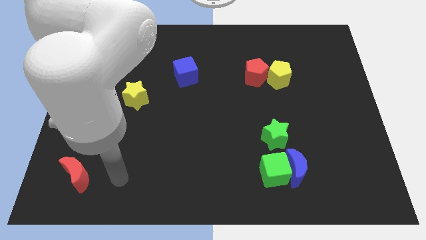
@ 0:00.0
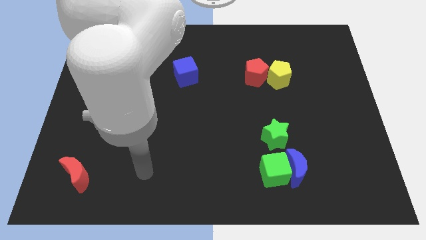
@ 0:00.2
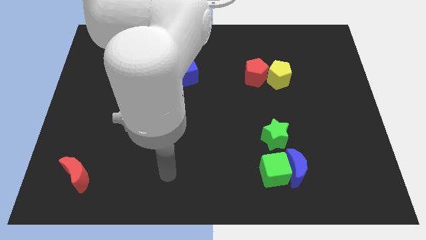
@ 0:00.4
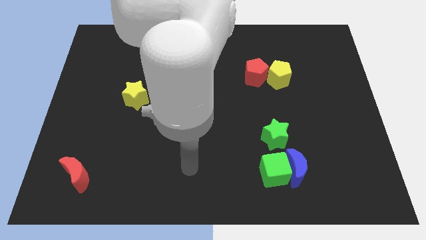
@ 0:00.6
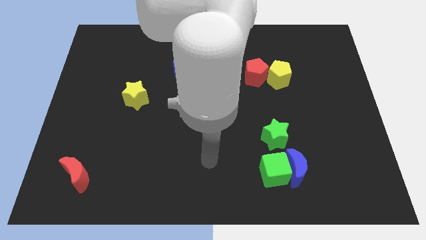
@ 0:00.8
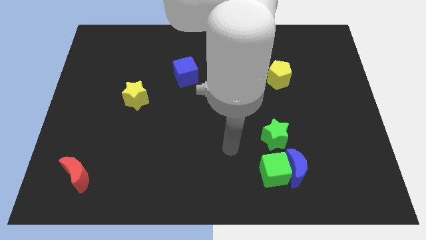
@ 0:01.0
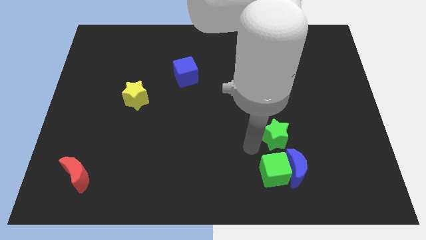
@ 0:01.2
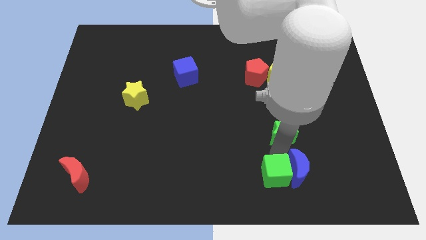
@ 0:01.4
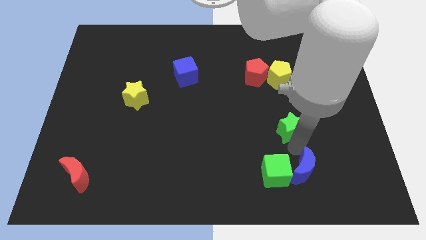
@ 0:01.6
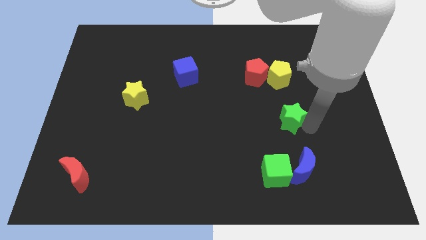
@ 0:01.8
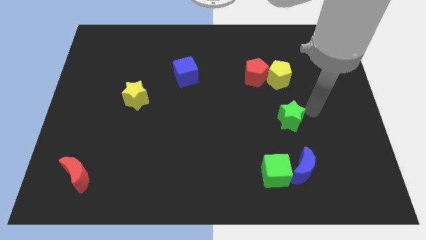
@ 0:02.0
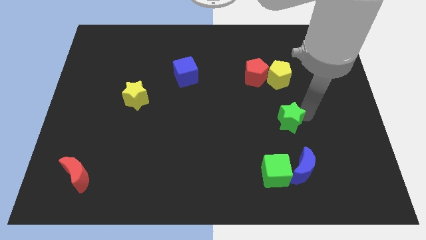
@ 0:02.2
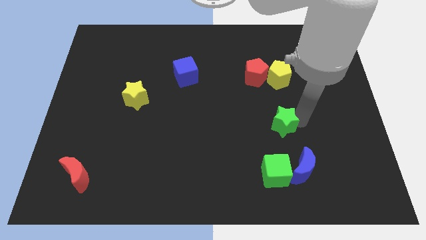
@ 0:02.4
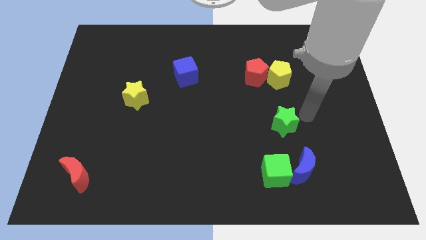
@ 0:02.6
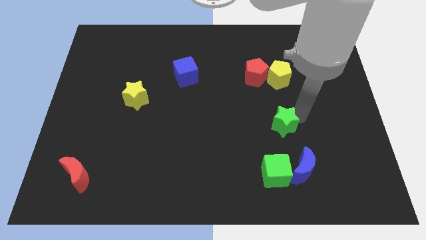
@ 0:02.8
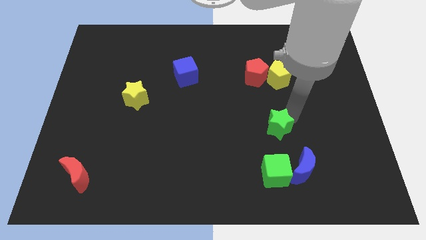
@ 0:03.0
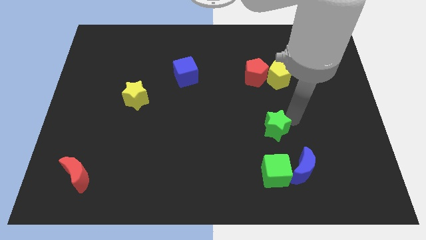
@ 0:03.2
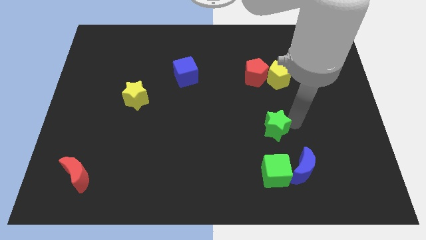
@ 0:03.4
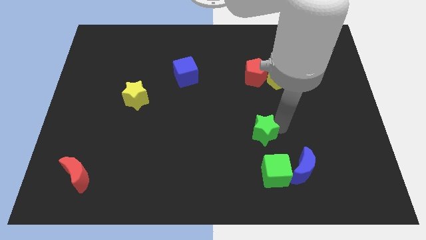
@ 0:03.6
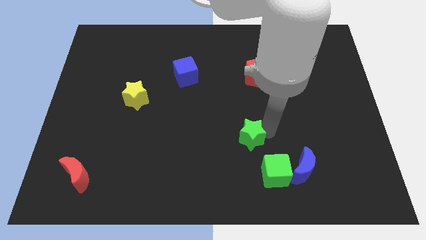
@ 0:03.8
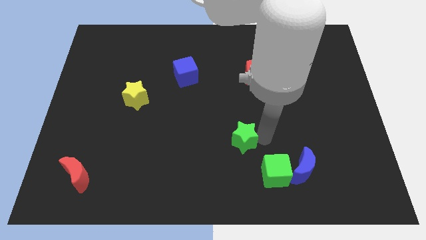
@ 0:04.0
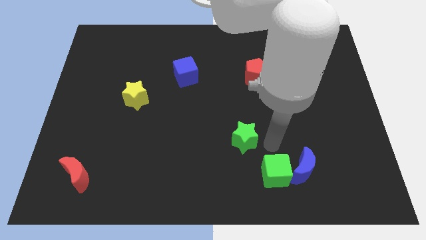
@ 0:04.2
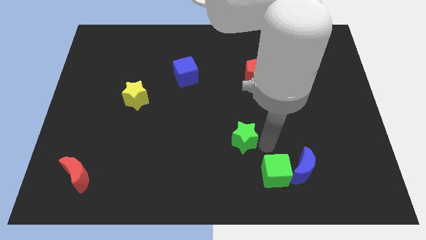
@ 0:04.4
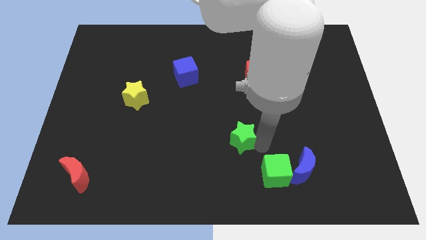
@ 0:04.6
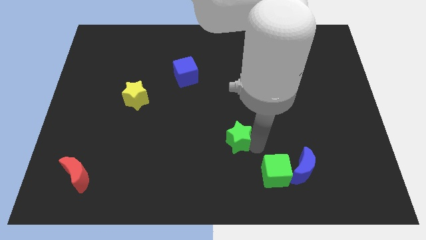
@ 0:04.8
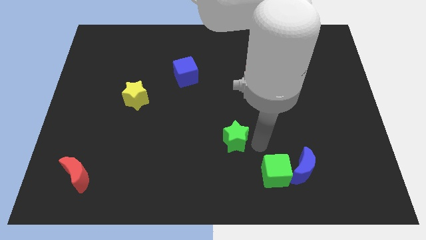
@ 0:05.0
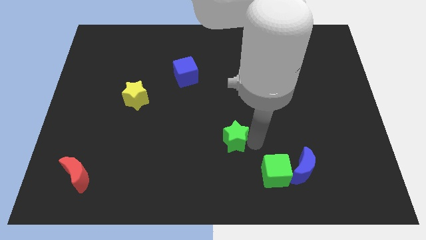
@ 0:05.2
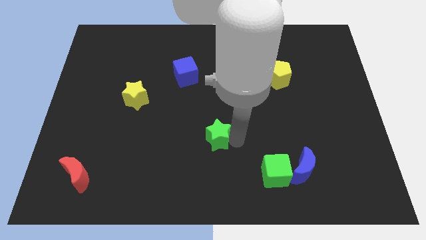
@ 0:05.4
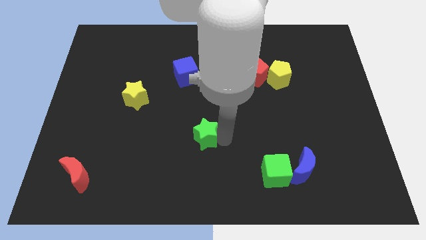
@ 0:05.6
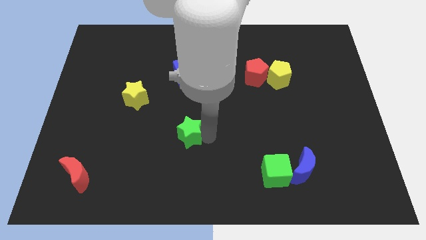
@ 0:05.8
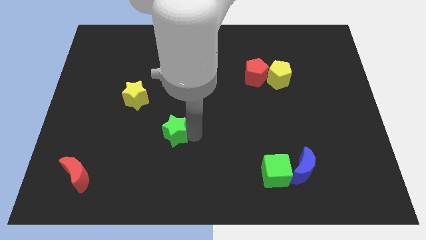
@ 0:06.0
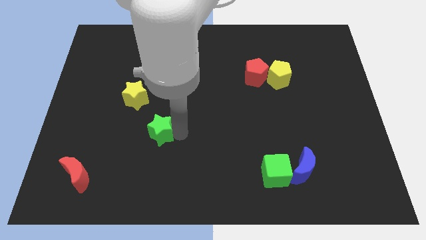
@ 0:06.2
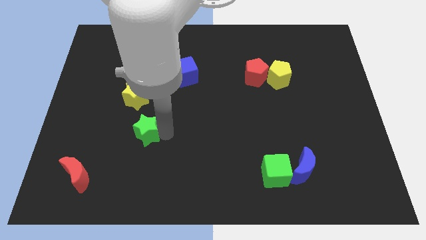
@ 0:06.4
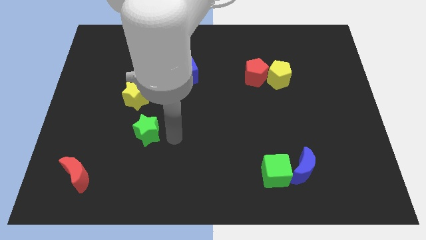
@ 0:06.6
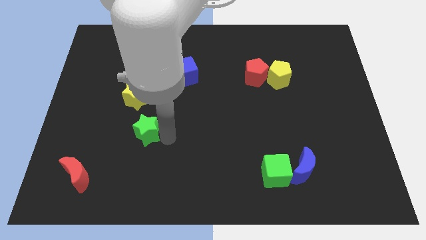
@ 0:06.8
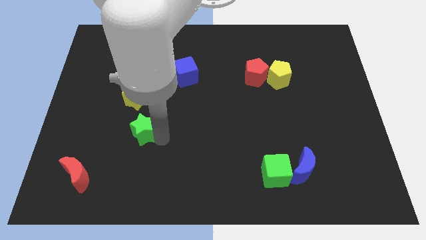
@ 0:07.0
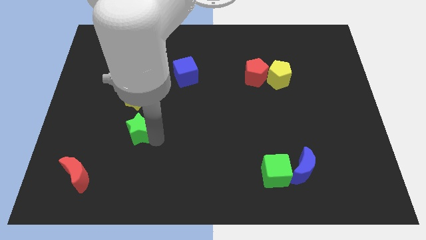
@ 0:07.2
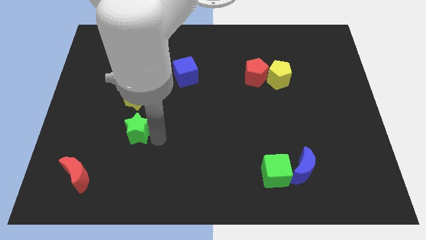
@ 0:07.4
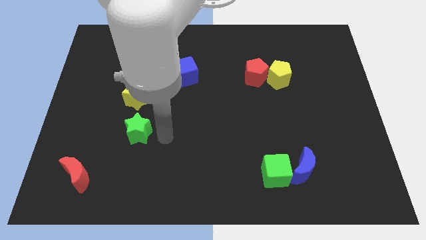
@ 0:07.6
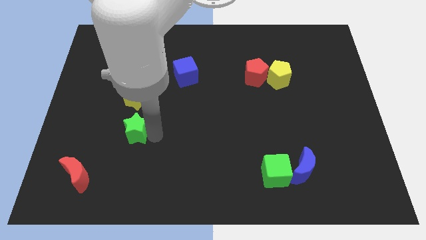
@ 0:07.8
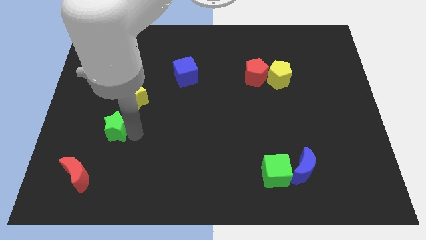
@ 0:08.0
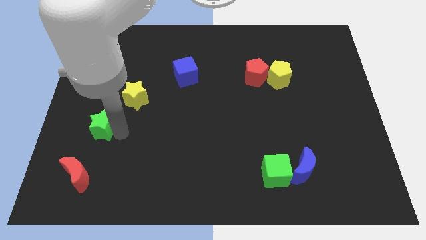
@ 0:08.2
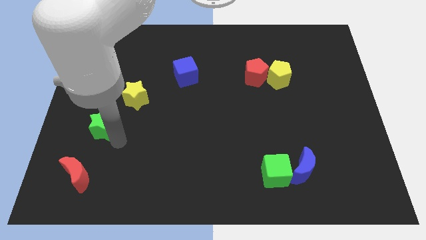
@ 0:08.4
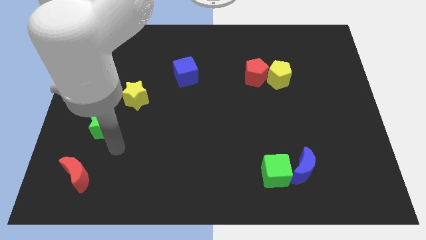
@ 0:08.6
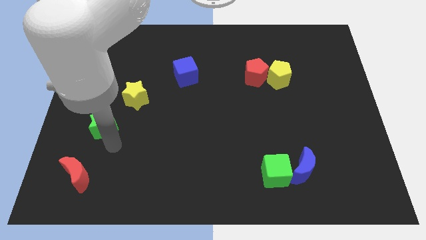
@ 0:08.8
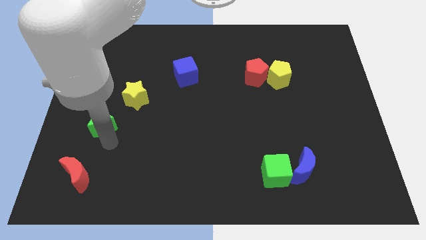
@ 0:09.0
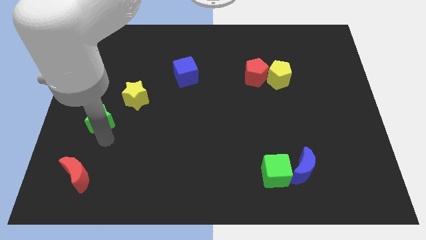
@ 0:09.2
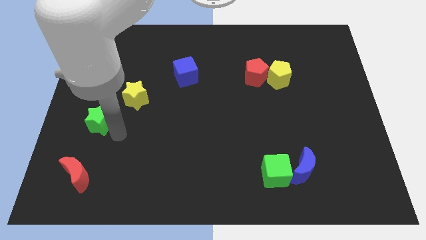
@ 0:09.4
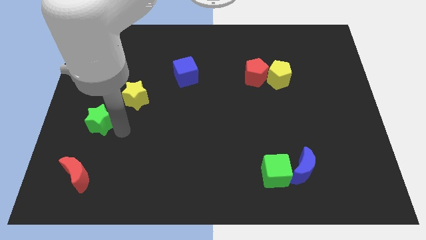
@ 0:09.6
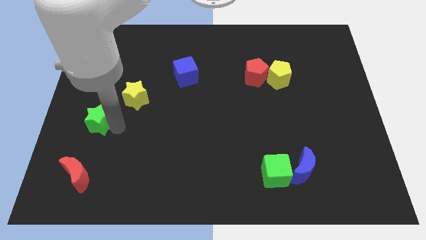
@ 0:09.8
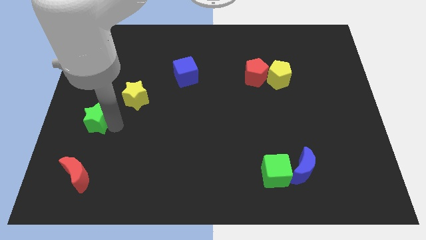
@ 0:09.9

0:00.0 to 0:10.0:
slide the green star to the center left

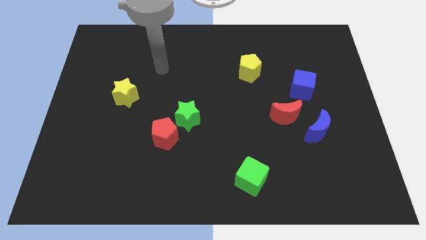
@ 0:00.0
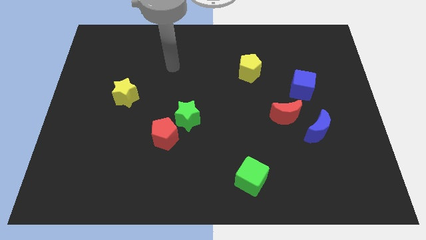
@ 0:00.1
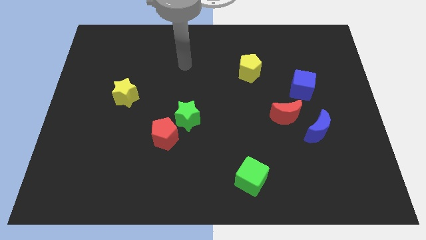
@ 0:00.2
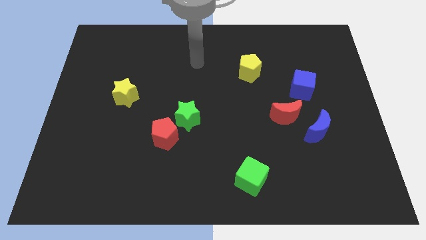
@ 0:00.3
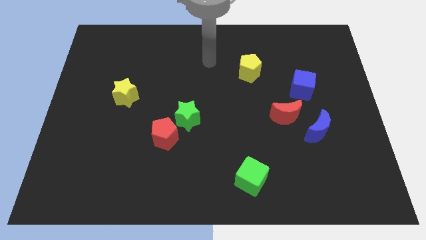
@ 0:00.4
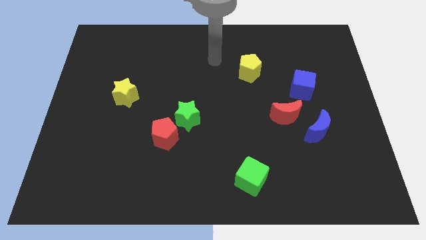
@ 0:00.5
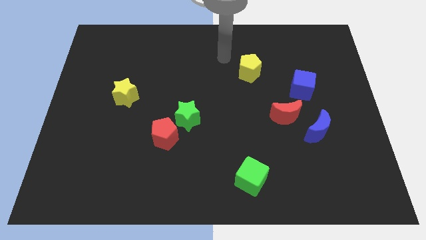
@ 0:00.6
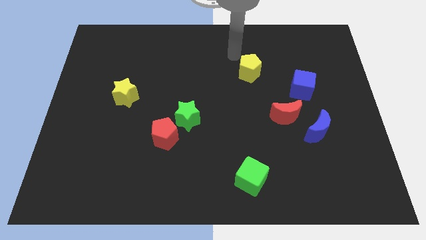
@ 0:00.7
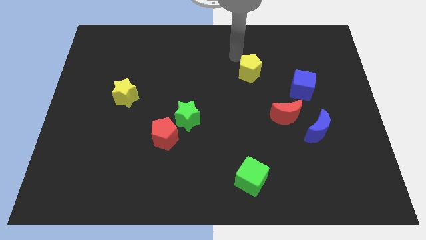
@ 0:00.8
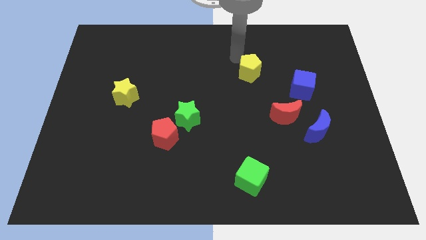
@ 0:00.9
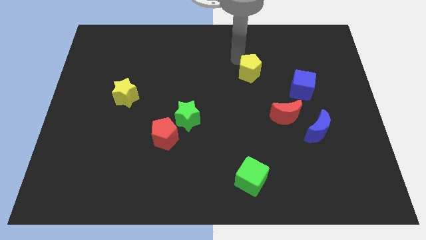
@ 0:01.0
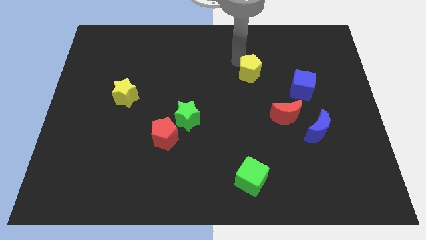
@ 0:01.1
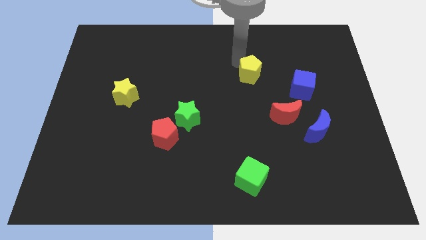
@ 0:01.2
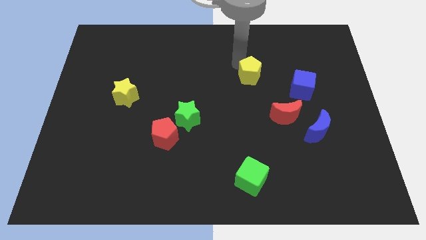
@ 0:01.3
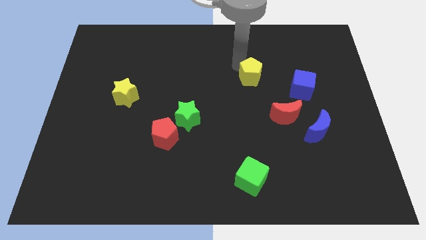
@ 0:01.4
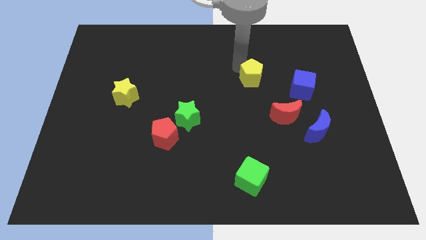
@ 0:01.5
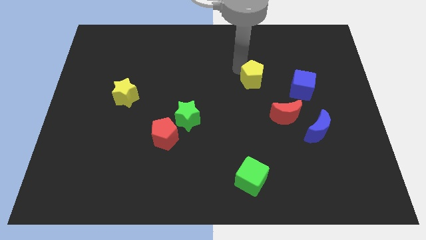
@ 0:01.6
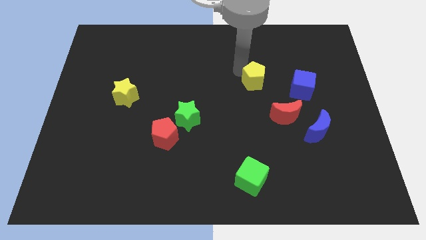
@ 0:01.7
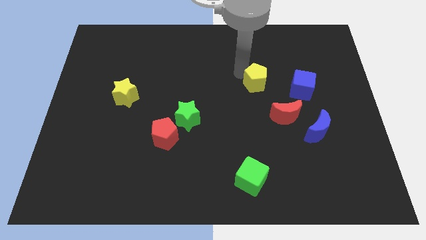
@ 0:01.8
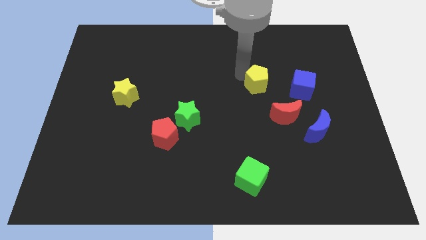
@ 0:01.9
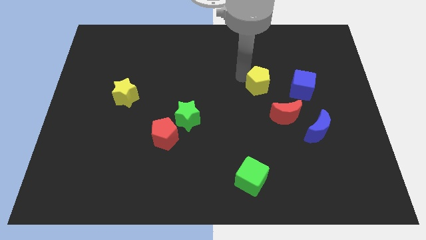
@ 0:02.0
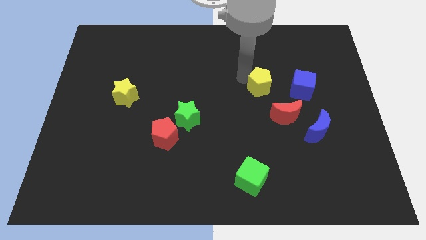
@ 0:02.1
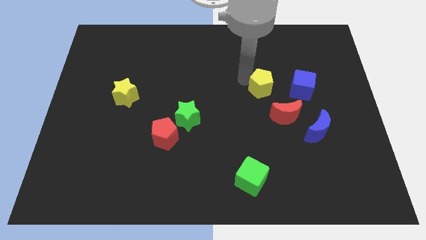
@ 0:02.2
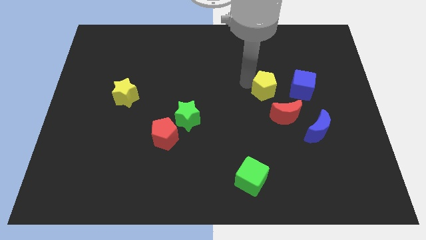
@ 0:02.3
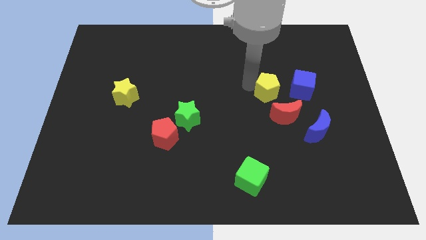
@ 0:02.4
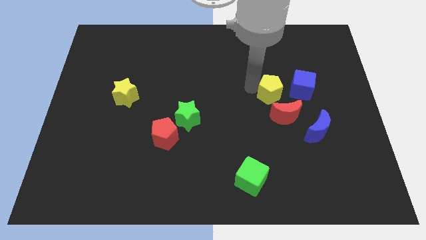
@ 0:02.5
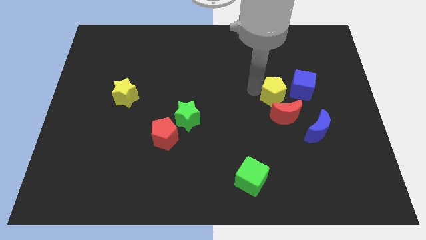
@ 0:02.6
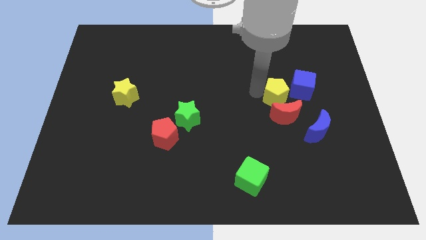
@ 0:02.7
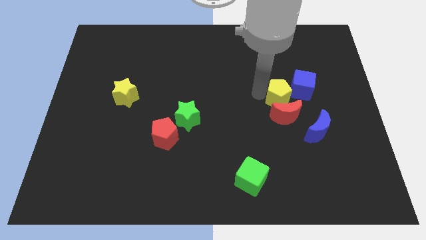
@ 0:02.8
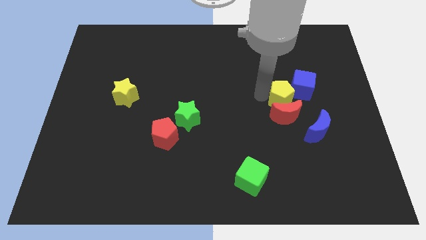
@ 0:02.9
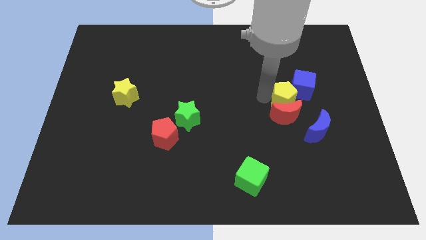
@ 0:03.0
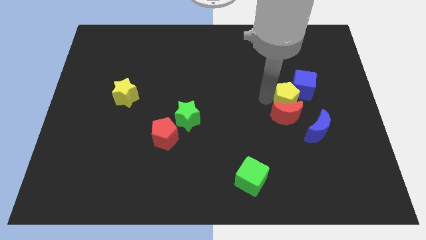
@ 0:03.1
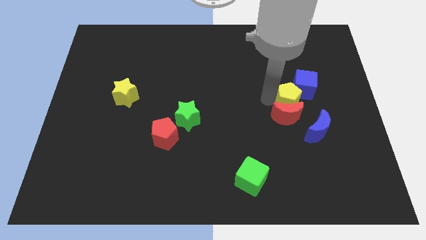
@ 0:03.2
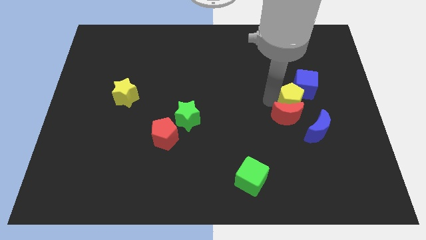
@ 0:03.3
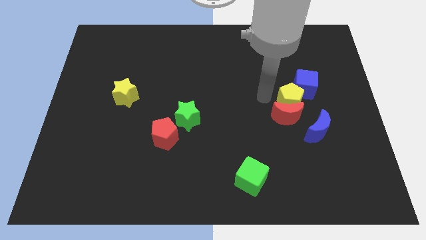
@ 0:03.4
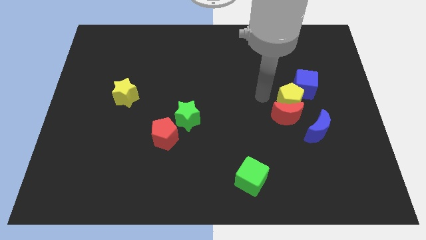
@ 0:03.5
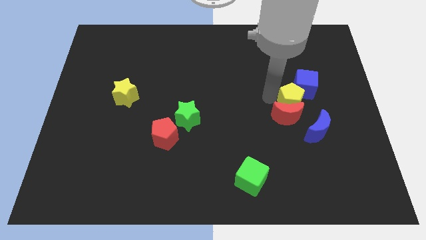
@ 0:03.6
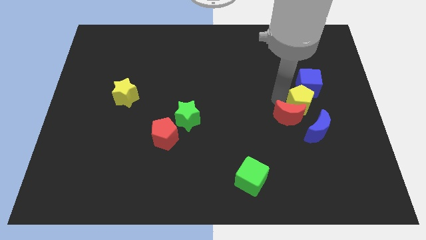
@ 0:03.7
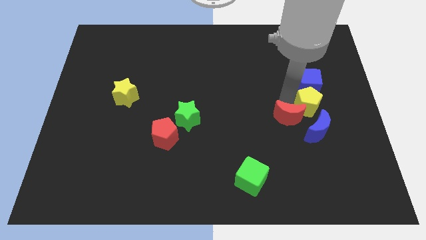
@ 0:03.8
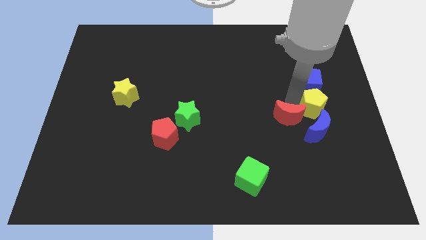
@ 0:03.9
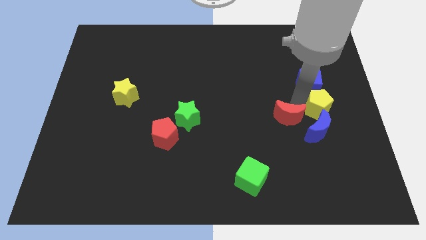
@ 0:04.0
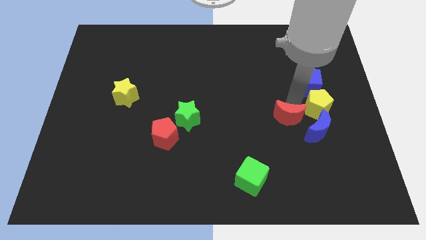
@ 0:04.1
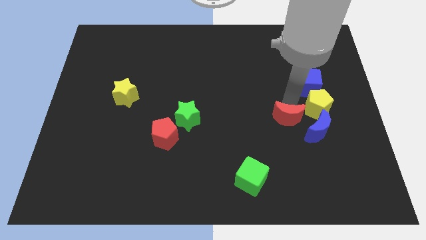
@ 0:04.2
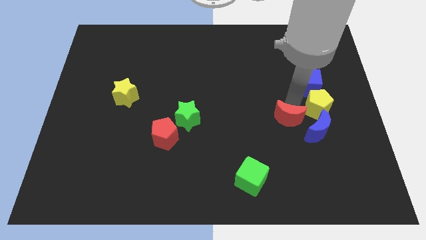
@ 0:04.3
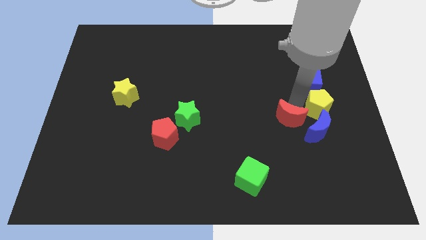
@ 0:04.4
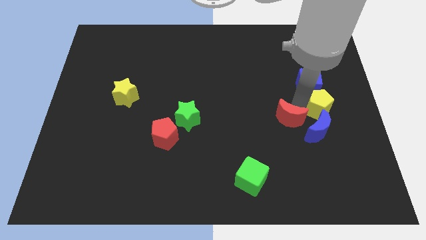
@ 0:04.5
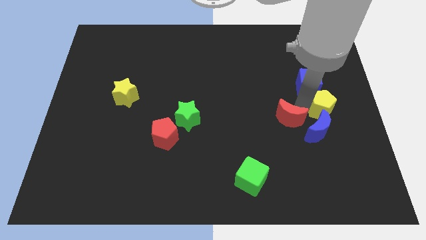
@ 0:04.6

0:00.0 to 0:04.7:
slide the yellow pentagon to the right side of the board
